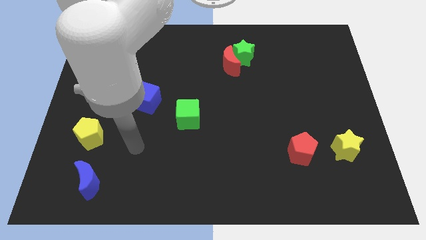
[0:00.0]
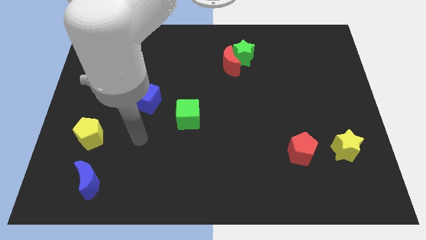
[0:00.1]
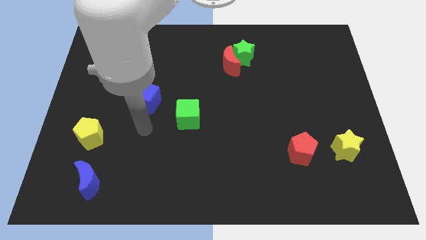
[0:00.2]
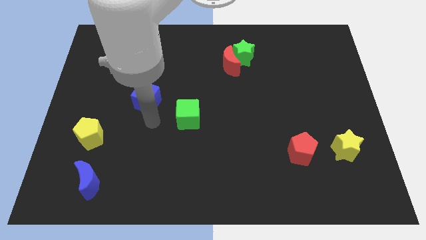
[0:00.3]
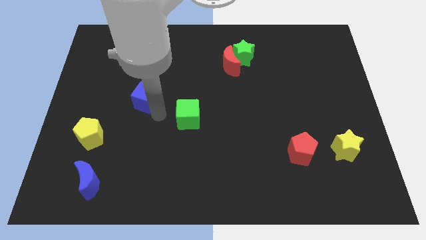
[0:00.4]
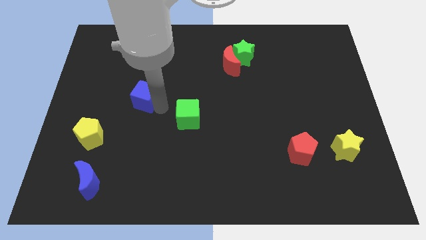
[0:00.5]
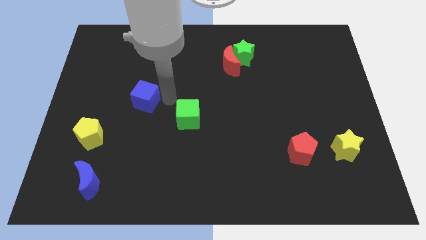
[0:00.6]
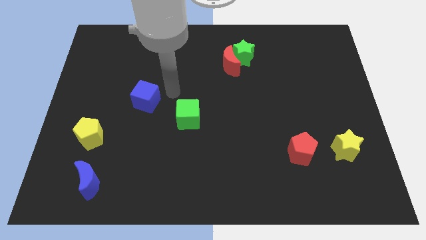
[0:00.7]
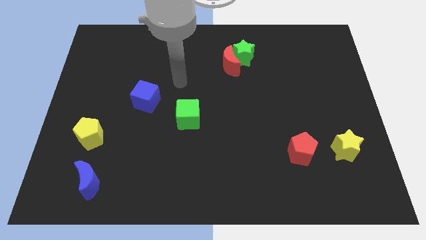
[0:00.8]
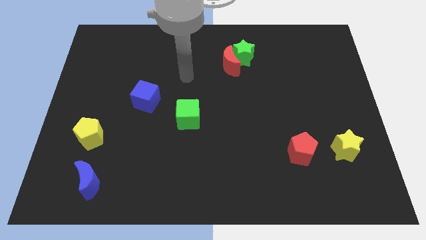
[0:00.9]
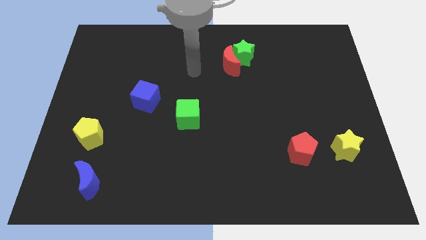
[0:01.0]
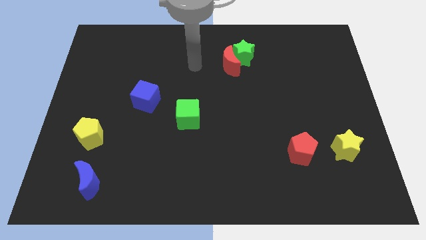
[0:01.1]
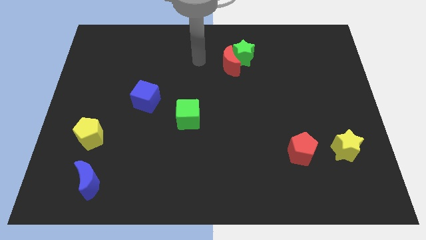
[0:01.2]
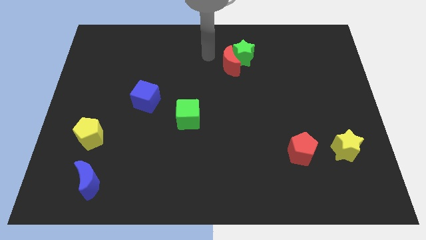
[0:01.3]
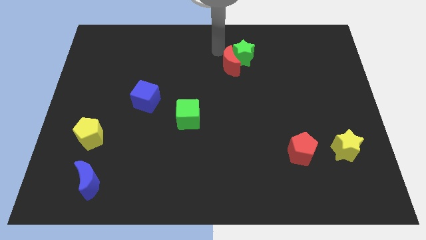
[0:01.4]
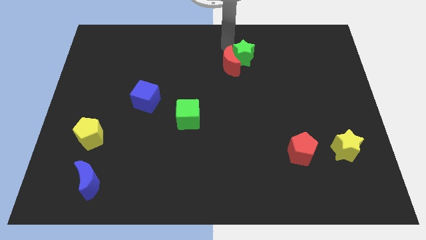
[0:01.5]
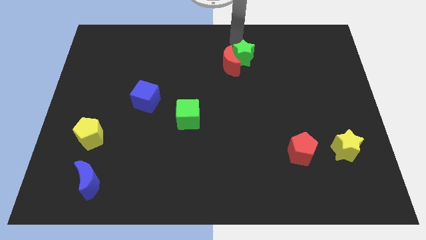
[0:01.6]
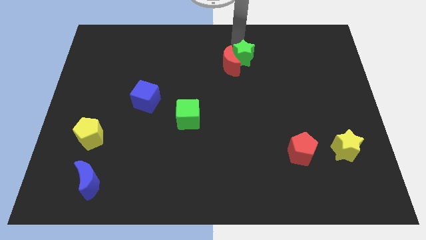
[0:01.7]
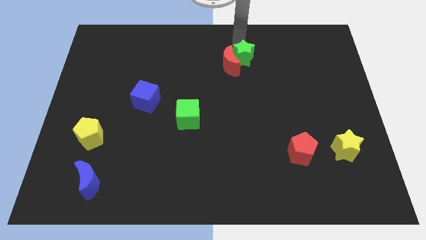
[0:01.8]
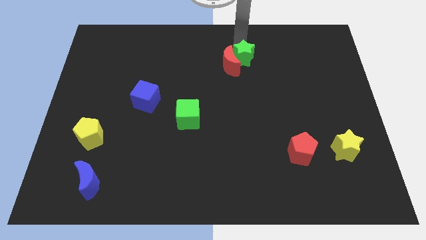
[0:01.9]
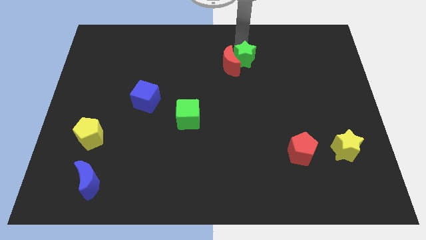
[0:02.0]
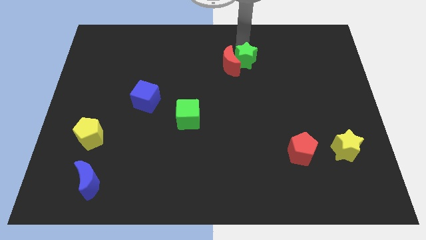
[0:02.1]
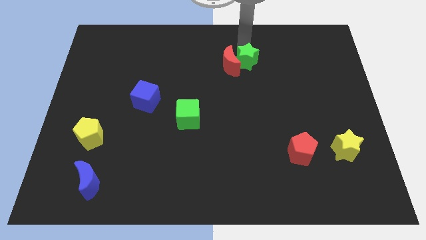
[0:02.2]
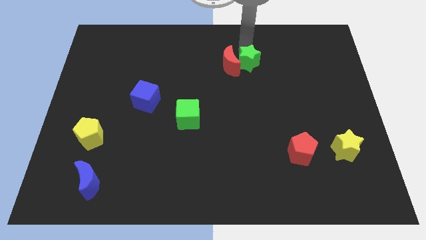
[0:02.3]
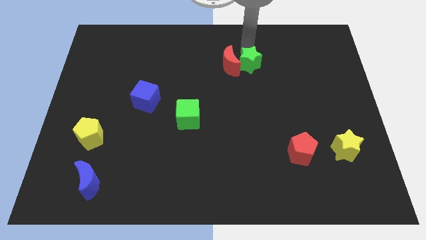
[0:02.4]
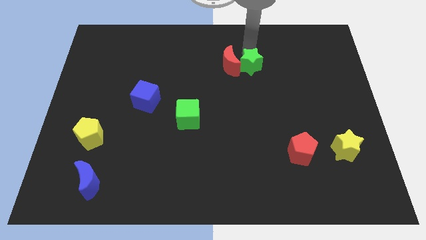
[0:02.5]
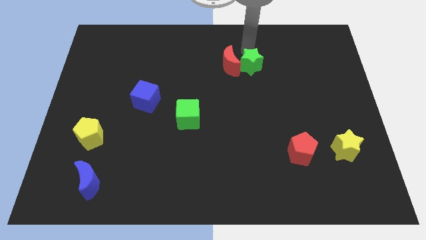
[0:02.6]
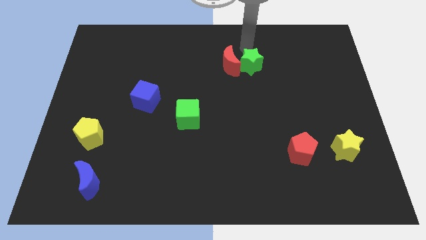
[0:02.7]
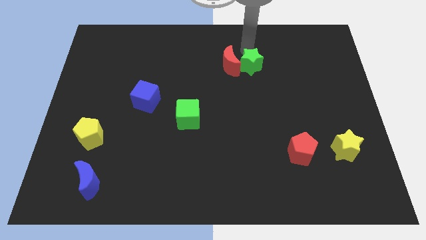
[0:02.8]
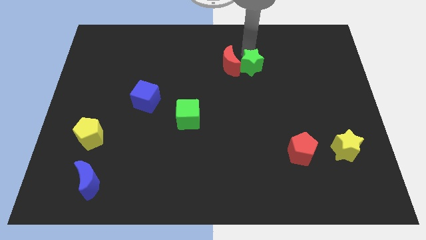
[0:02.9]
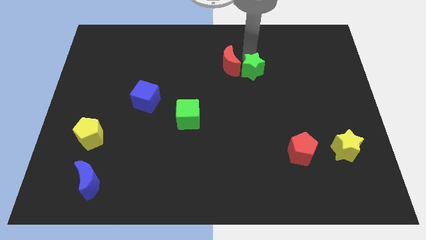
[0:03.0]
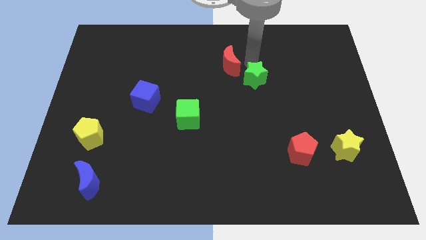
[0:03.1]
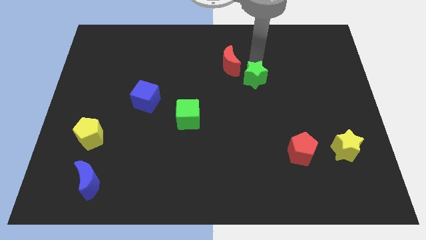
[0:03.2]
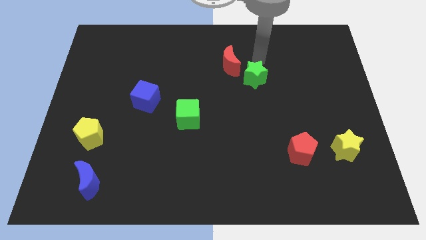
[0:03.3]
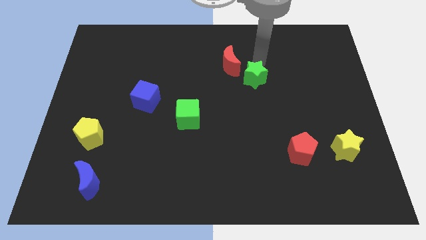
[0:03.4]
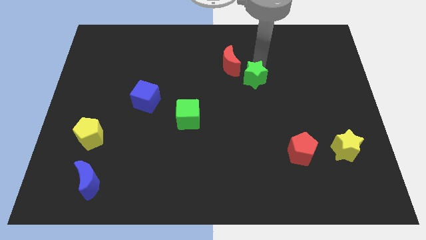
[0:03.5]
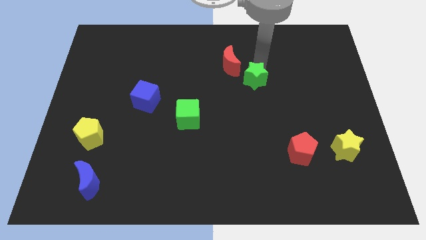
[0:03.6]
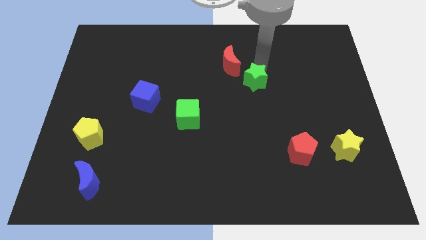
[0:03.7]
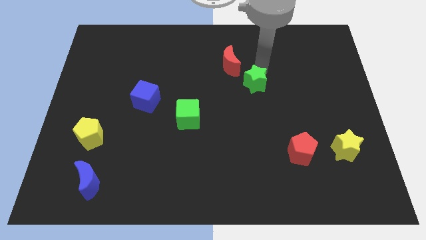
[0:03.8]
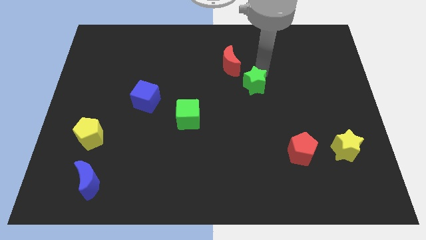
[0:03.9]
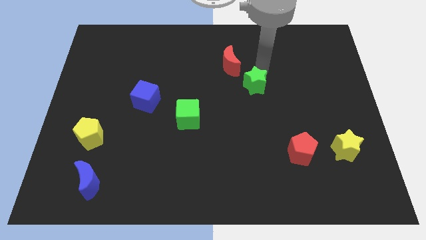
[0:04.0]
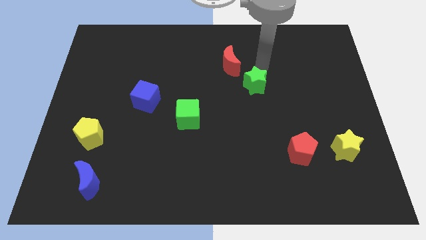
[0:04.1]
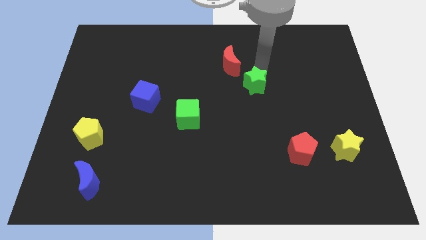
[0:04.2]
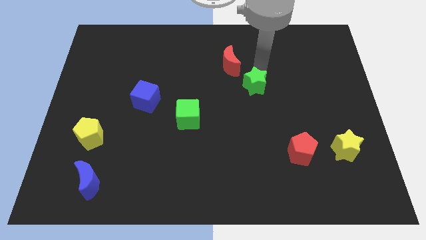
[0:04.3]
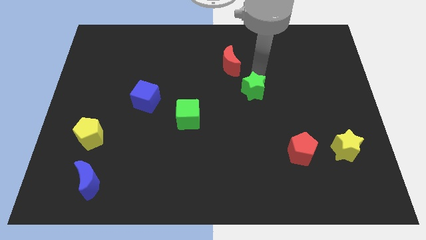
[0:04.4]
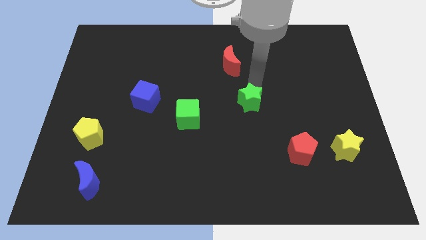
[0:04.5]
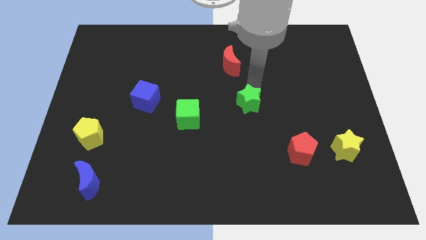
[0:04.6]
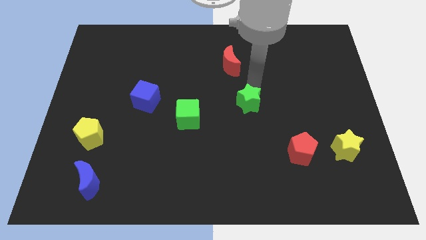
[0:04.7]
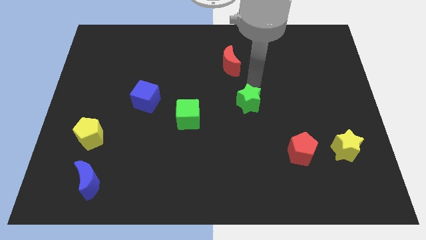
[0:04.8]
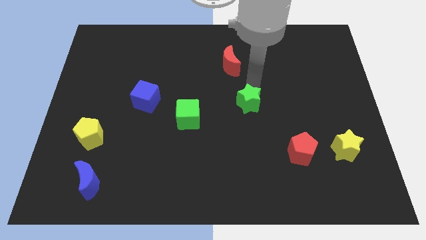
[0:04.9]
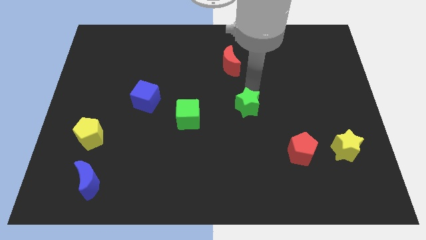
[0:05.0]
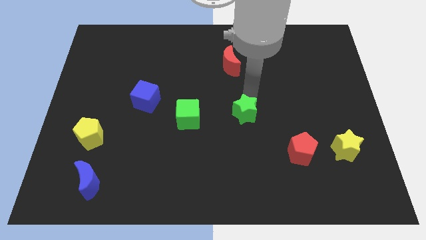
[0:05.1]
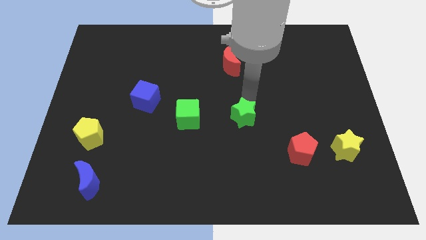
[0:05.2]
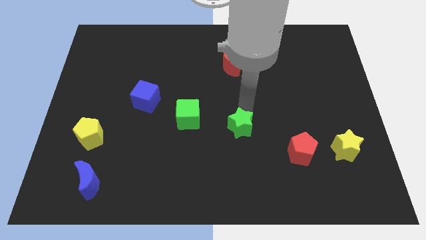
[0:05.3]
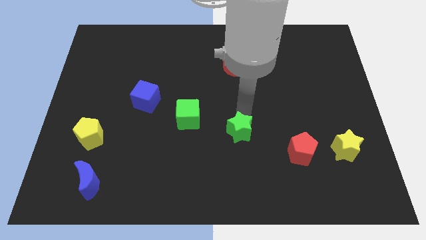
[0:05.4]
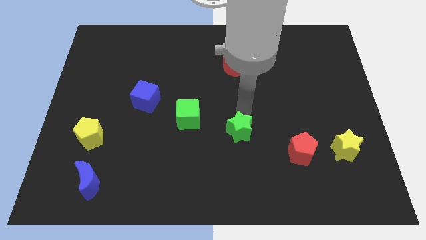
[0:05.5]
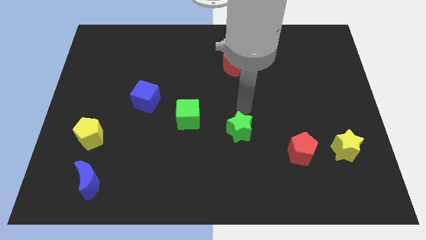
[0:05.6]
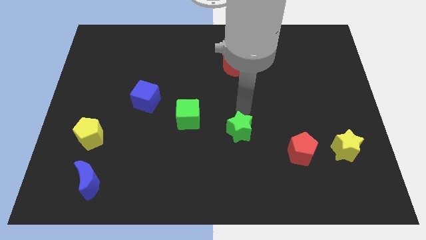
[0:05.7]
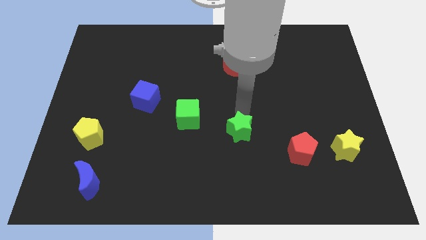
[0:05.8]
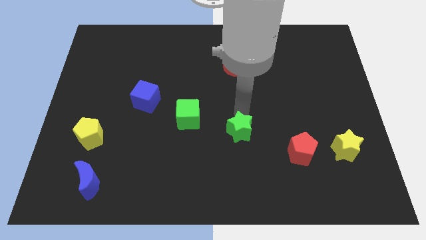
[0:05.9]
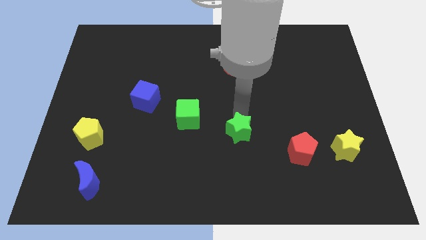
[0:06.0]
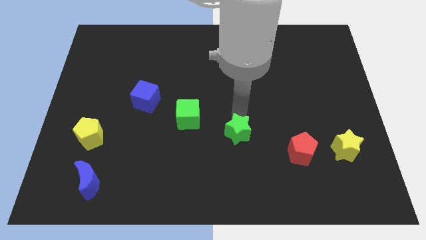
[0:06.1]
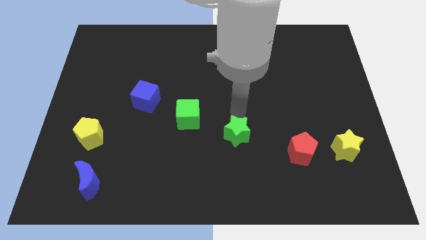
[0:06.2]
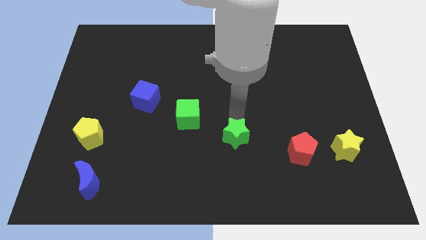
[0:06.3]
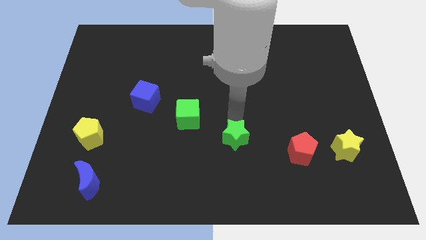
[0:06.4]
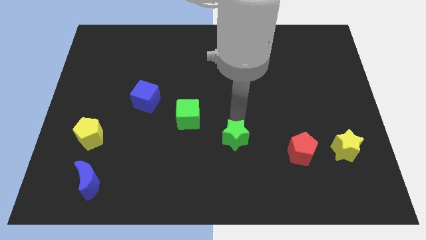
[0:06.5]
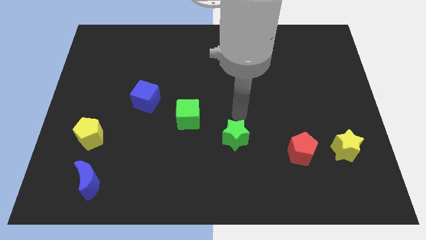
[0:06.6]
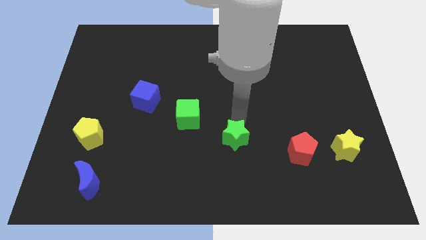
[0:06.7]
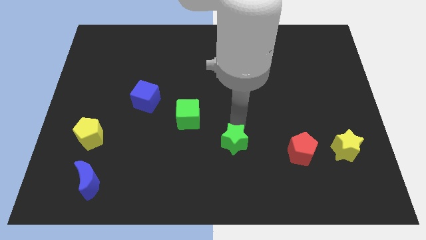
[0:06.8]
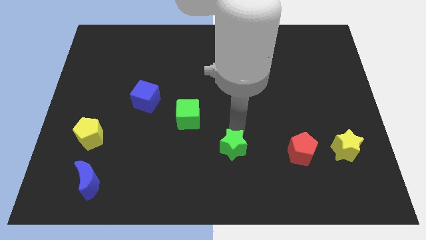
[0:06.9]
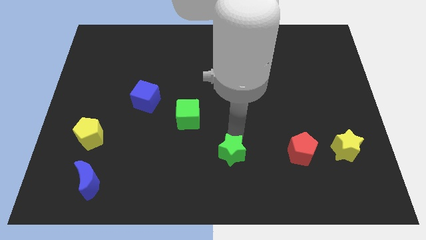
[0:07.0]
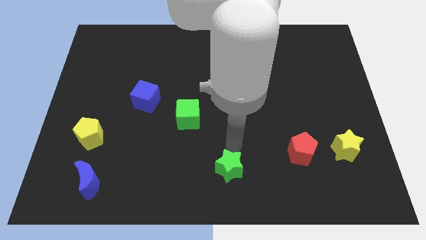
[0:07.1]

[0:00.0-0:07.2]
slide the green star to the bottom

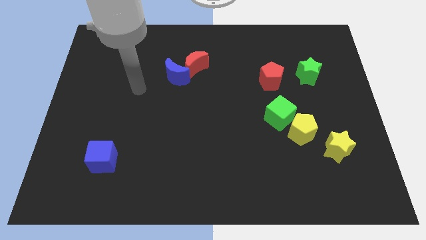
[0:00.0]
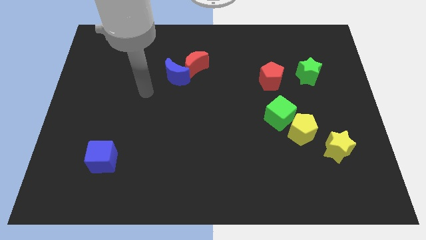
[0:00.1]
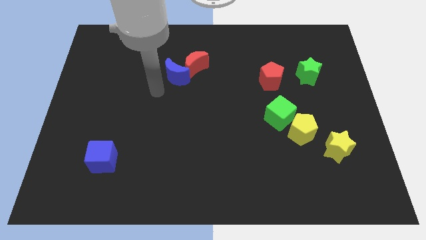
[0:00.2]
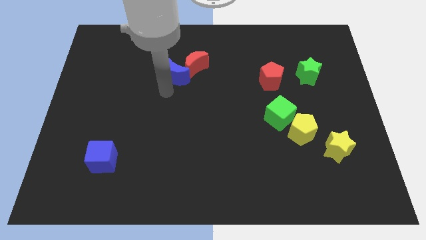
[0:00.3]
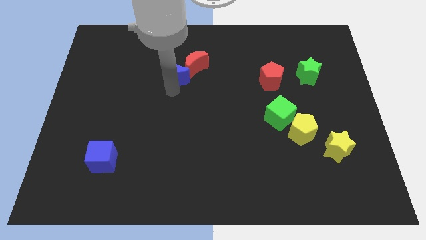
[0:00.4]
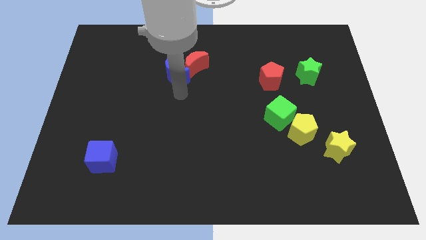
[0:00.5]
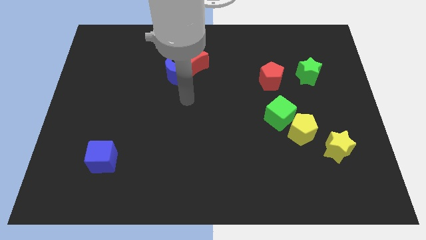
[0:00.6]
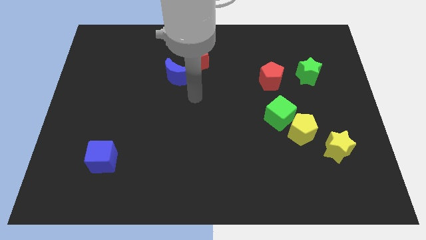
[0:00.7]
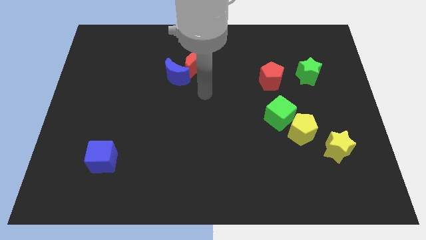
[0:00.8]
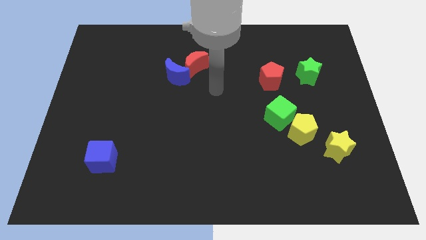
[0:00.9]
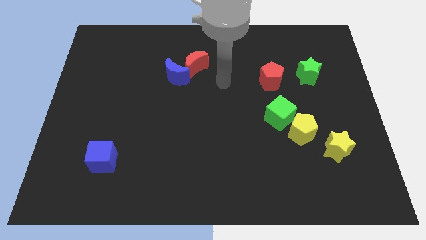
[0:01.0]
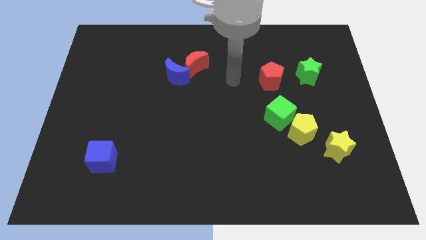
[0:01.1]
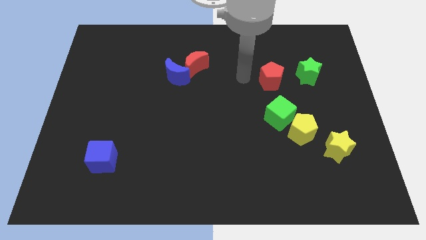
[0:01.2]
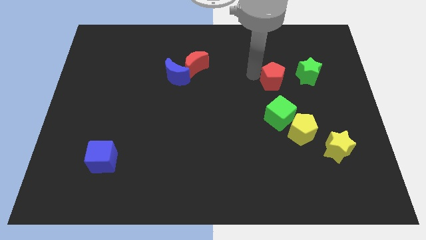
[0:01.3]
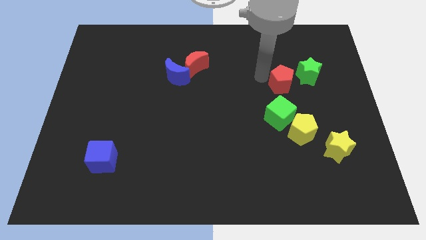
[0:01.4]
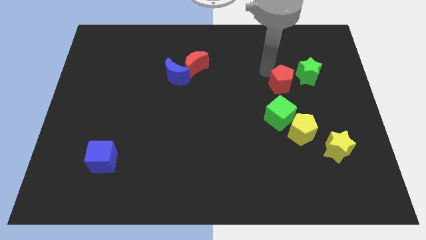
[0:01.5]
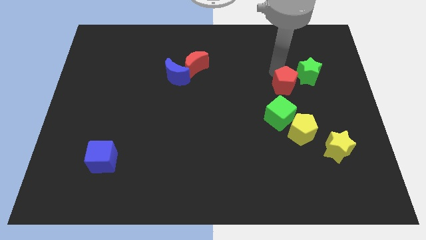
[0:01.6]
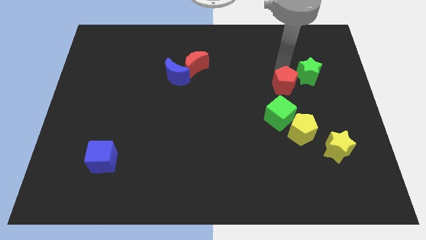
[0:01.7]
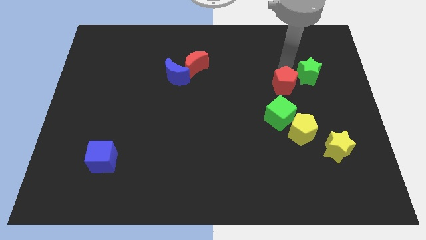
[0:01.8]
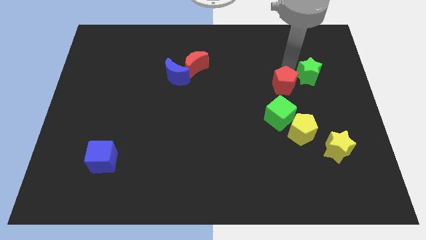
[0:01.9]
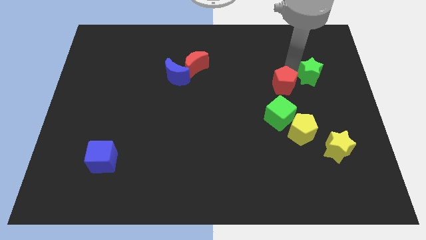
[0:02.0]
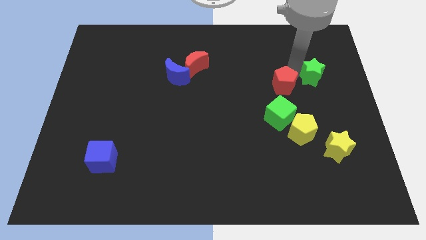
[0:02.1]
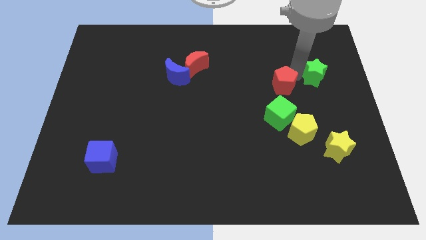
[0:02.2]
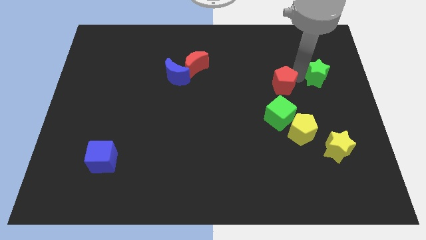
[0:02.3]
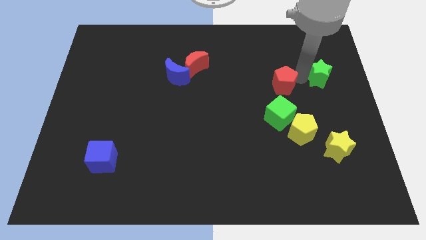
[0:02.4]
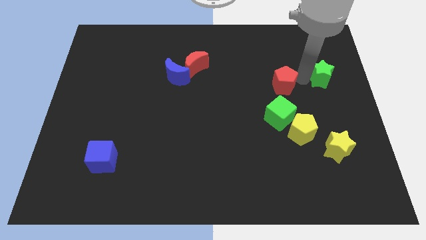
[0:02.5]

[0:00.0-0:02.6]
push the green star to the right side
